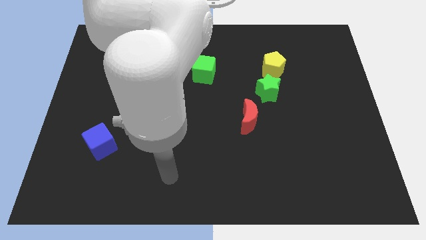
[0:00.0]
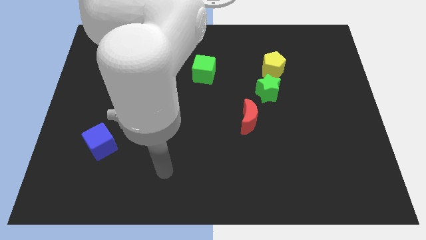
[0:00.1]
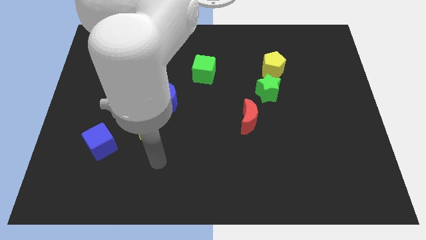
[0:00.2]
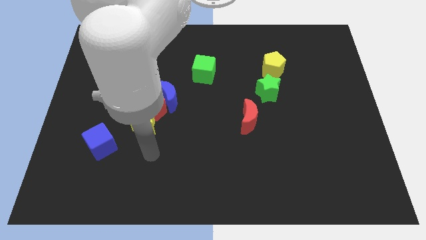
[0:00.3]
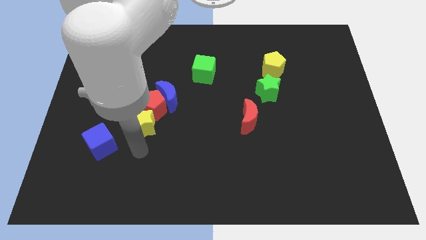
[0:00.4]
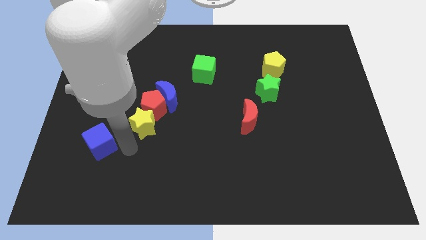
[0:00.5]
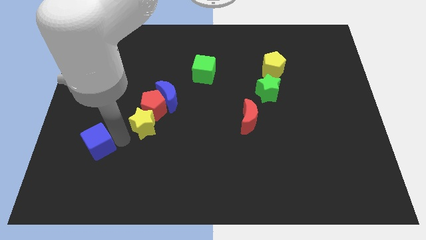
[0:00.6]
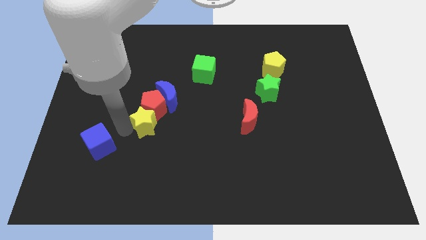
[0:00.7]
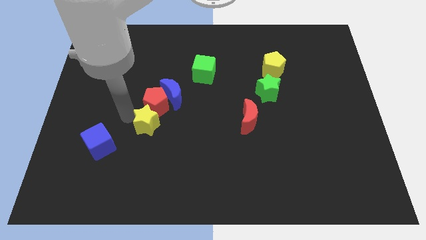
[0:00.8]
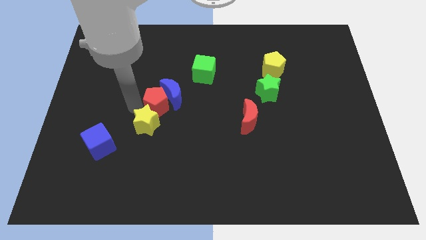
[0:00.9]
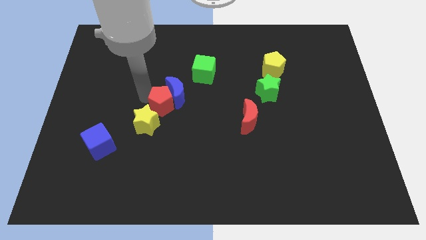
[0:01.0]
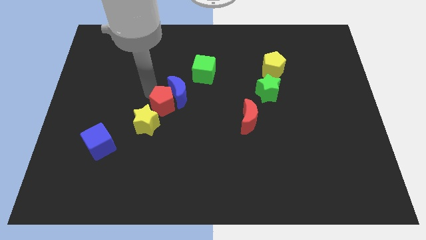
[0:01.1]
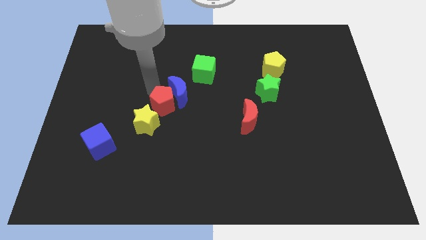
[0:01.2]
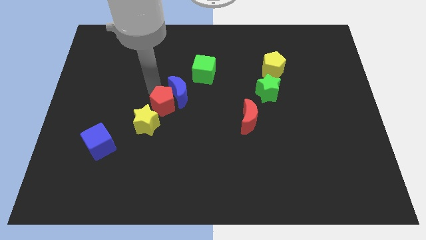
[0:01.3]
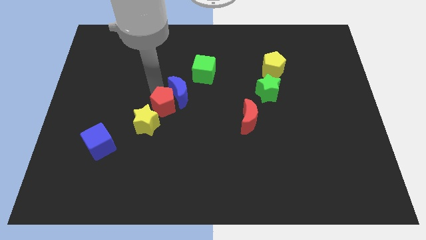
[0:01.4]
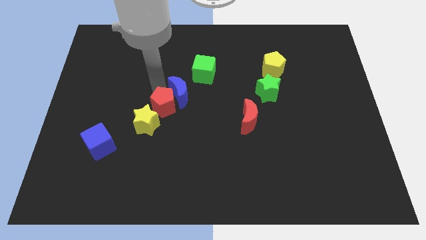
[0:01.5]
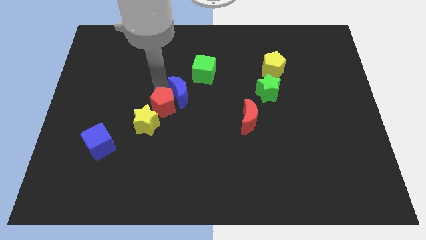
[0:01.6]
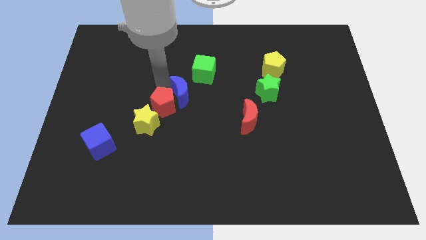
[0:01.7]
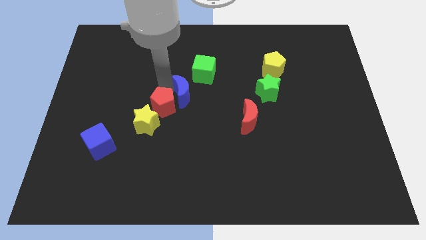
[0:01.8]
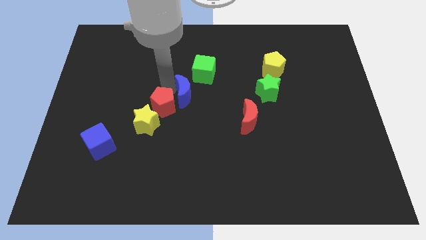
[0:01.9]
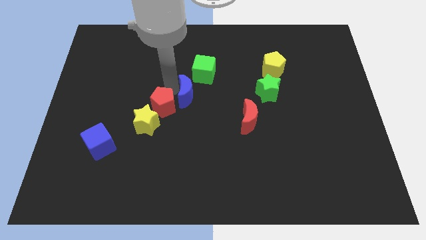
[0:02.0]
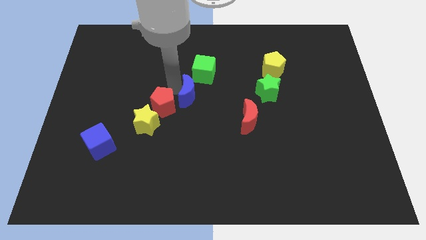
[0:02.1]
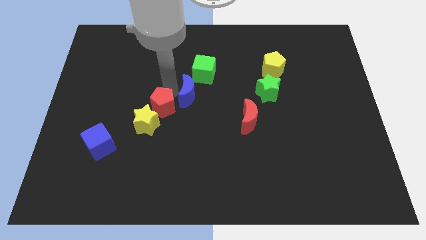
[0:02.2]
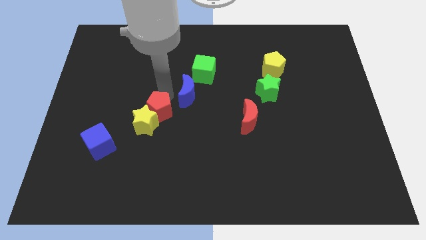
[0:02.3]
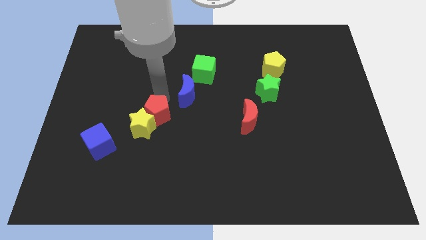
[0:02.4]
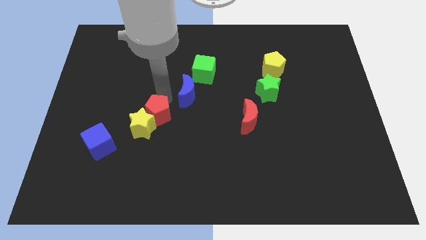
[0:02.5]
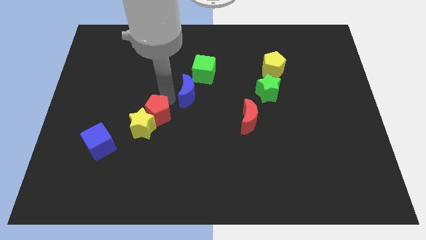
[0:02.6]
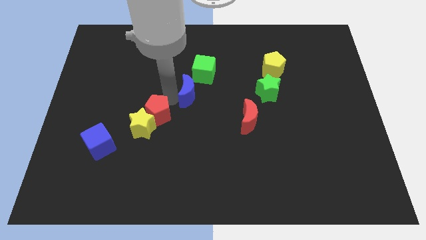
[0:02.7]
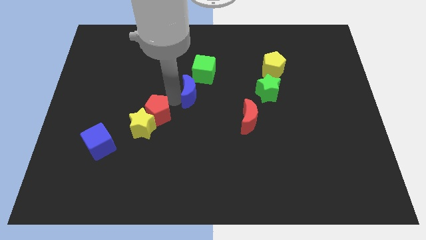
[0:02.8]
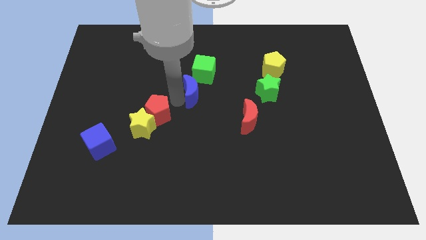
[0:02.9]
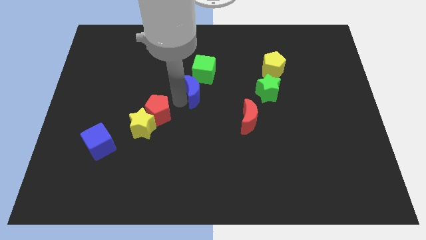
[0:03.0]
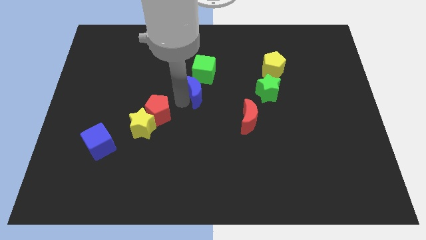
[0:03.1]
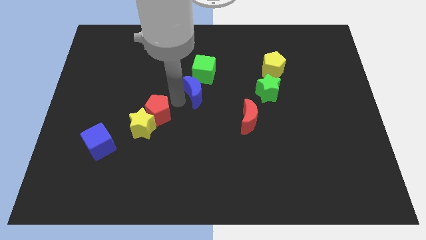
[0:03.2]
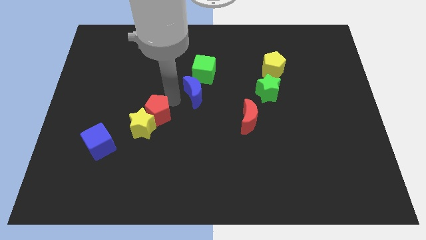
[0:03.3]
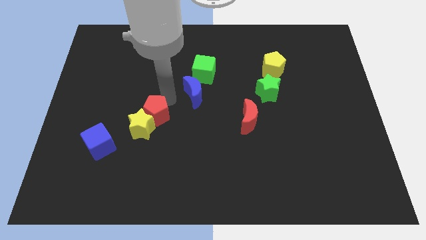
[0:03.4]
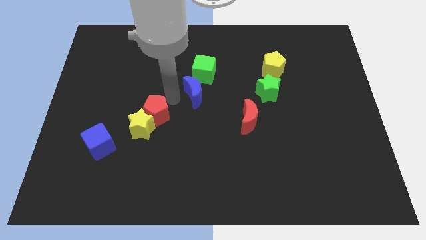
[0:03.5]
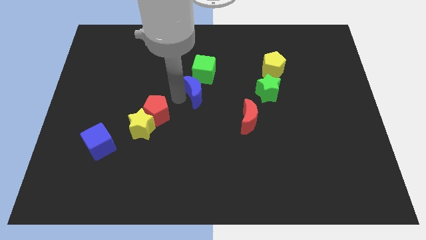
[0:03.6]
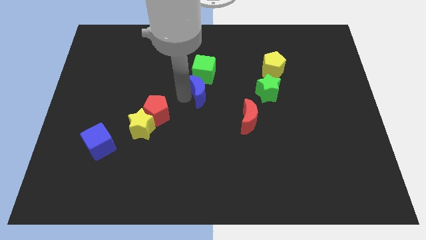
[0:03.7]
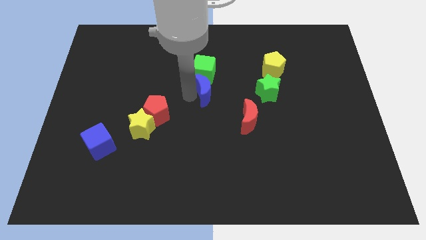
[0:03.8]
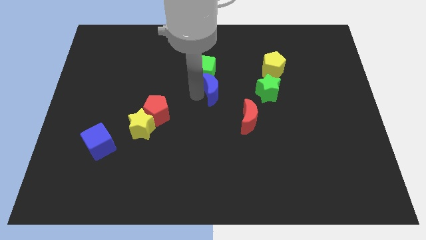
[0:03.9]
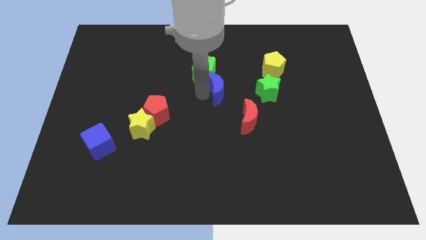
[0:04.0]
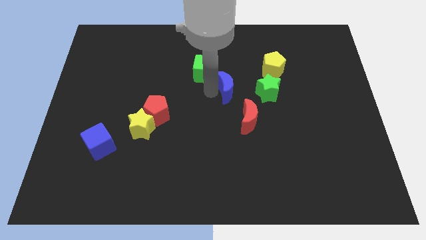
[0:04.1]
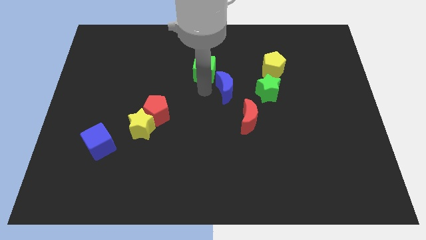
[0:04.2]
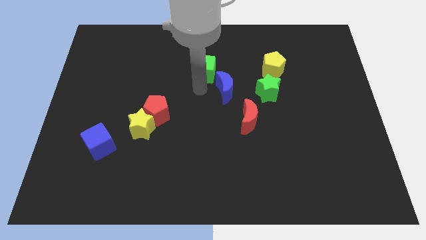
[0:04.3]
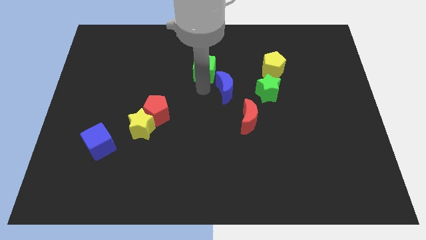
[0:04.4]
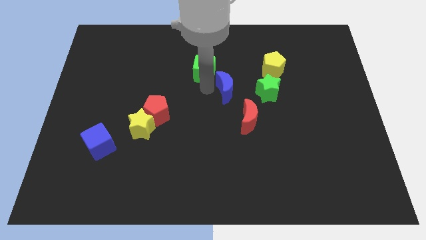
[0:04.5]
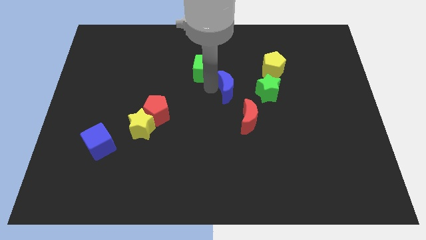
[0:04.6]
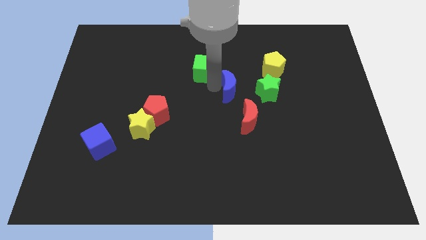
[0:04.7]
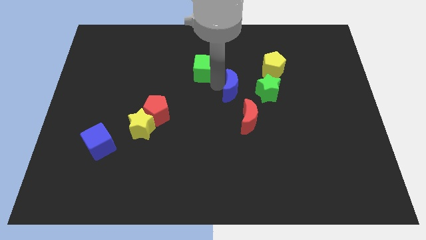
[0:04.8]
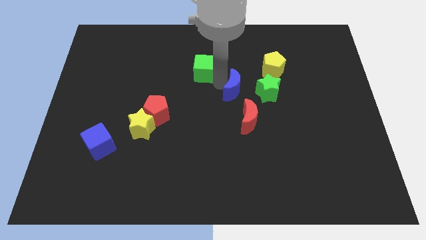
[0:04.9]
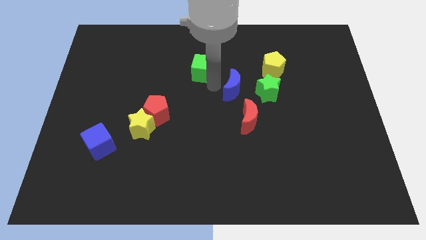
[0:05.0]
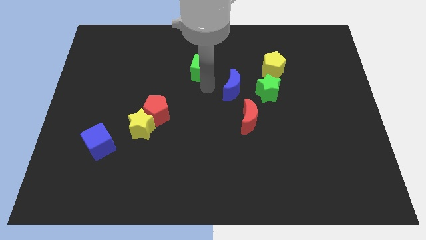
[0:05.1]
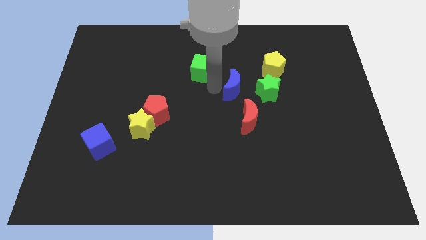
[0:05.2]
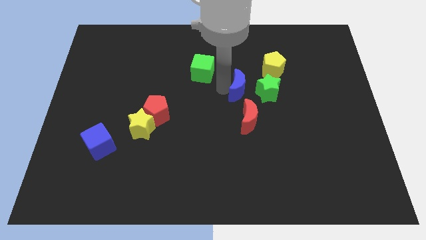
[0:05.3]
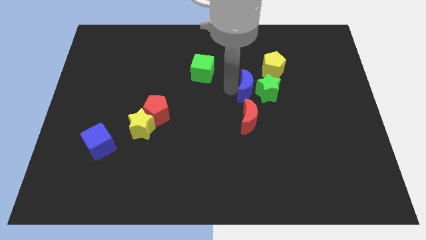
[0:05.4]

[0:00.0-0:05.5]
slide the blue moon next to the green star

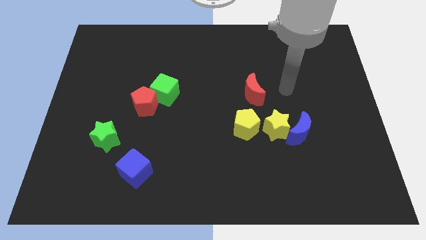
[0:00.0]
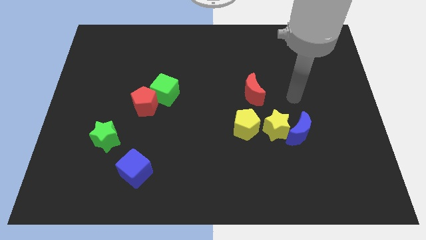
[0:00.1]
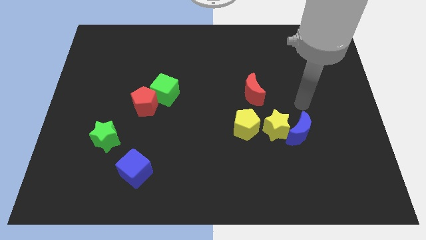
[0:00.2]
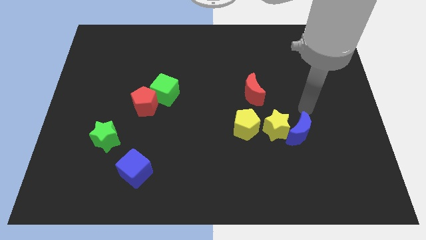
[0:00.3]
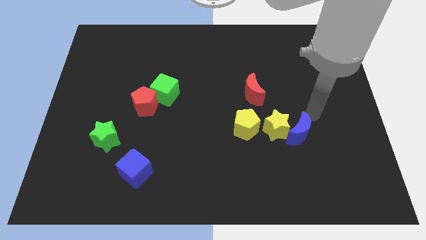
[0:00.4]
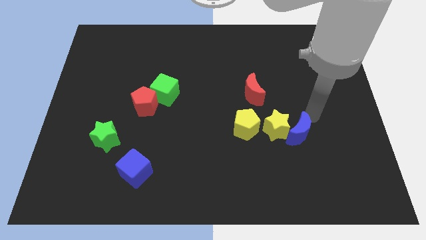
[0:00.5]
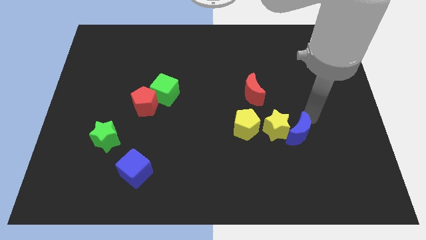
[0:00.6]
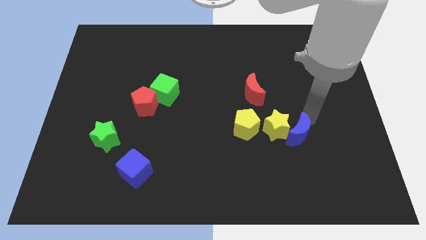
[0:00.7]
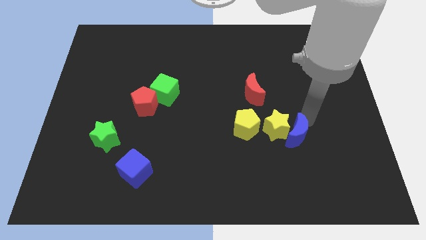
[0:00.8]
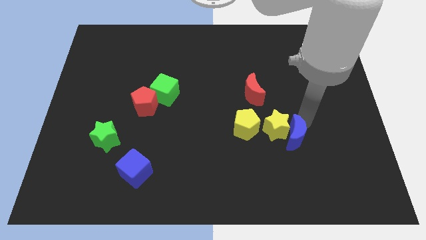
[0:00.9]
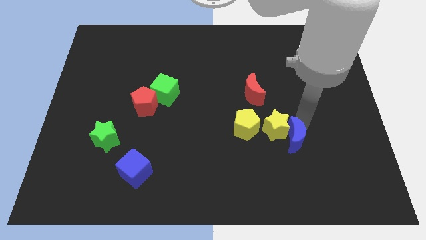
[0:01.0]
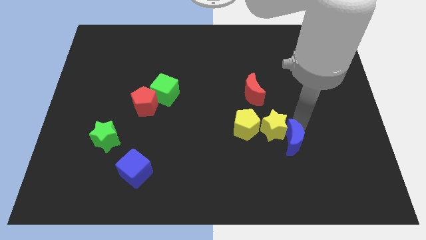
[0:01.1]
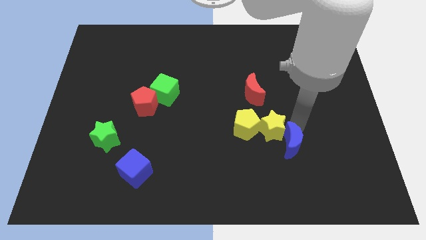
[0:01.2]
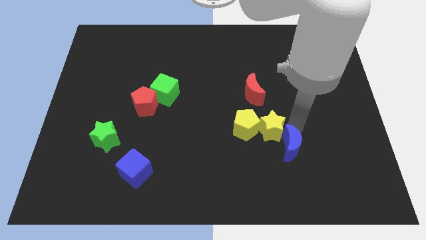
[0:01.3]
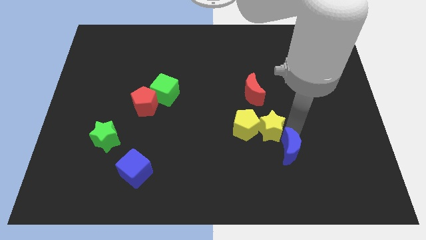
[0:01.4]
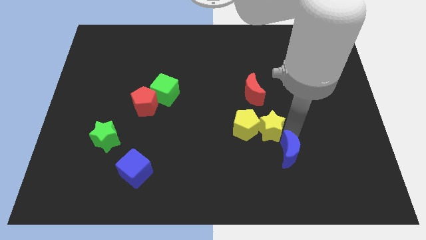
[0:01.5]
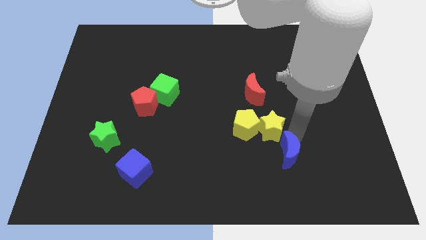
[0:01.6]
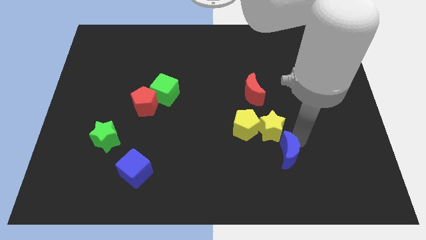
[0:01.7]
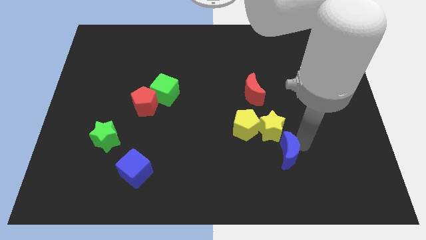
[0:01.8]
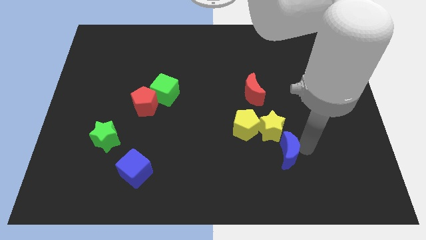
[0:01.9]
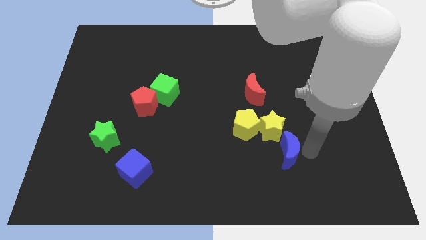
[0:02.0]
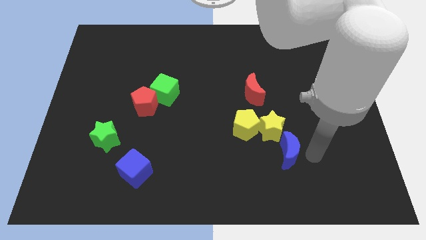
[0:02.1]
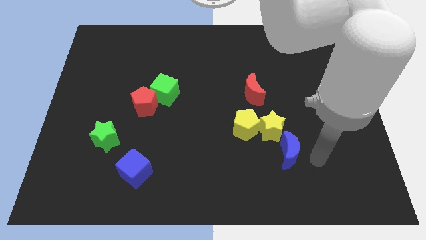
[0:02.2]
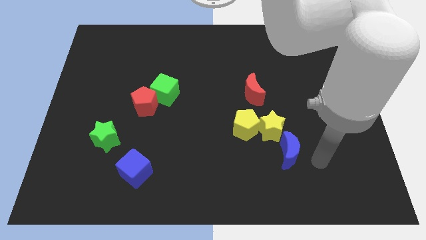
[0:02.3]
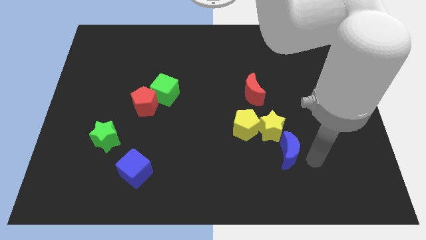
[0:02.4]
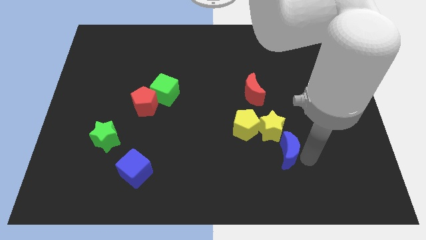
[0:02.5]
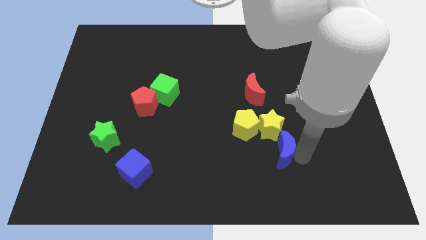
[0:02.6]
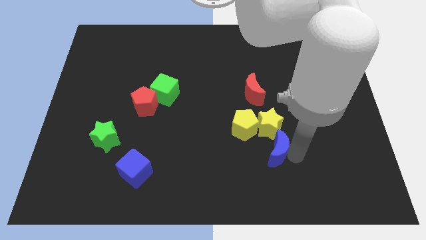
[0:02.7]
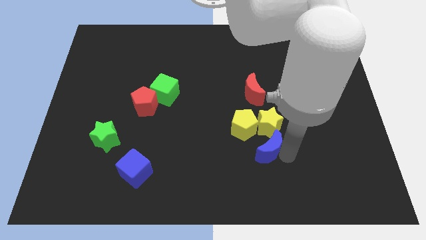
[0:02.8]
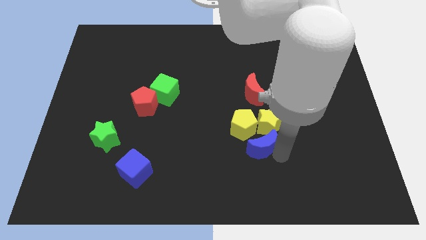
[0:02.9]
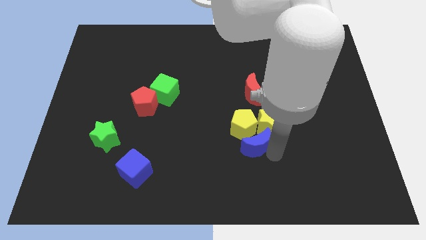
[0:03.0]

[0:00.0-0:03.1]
put the blue moon next to the yellow pentagon
